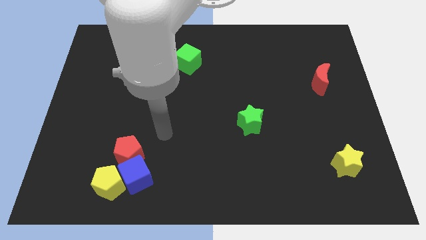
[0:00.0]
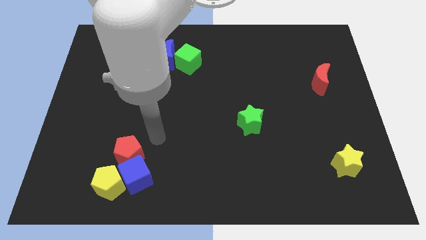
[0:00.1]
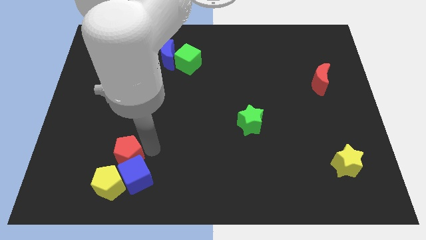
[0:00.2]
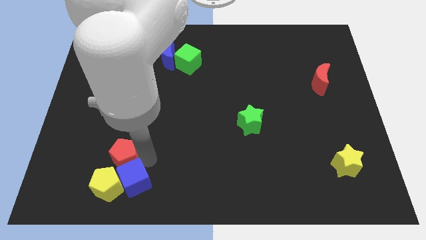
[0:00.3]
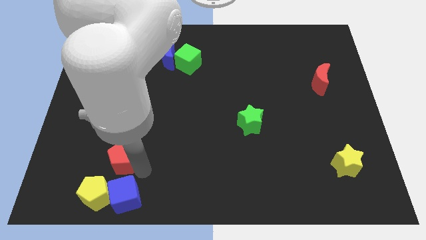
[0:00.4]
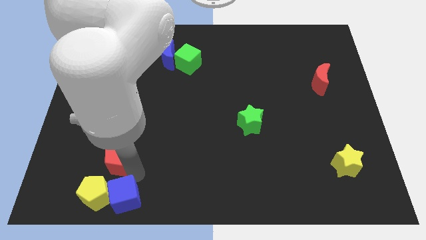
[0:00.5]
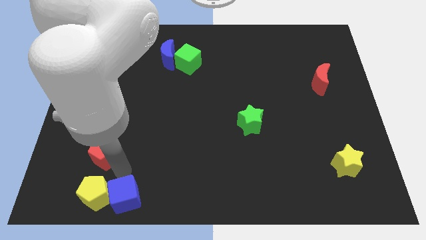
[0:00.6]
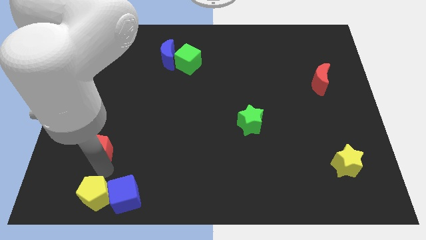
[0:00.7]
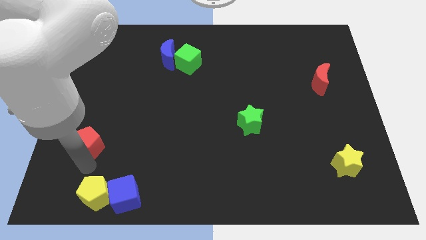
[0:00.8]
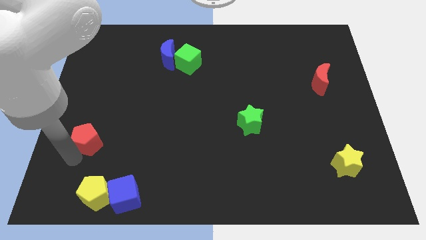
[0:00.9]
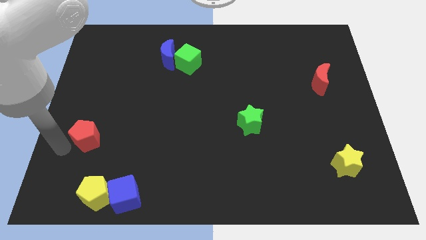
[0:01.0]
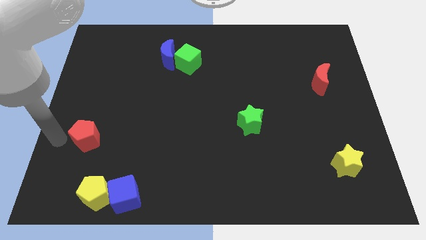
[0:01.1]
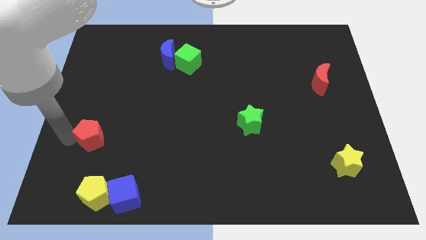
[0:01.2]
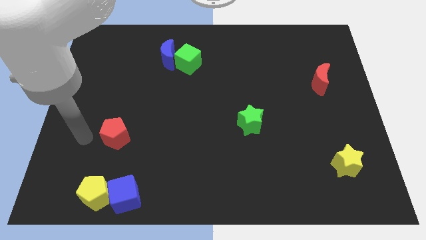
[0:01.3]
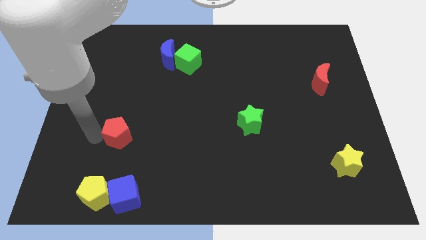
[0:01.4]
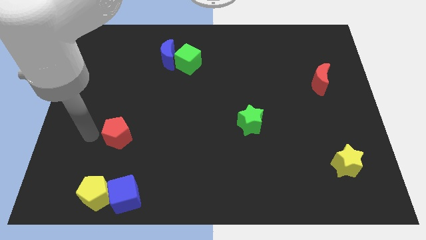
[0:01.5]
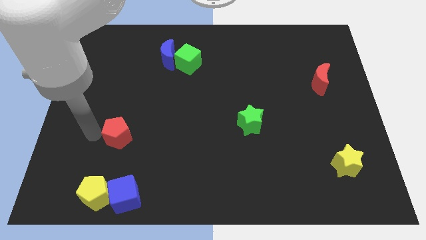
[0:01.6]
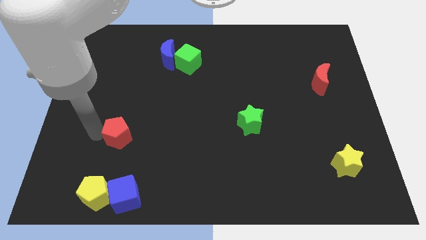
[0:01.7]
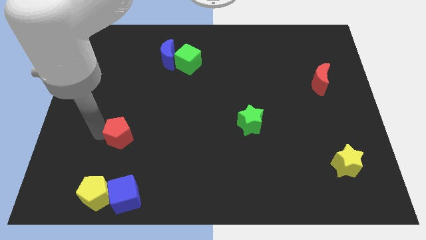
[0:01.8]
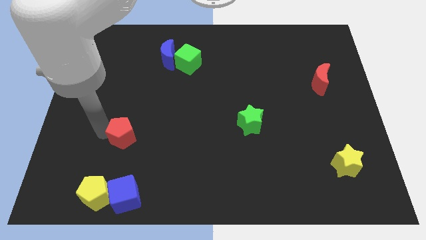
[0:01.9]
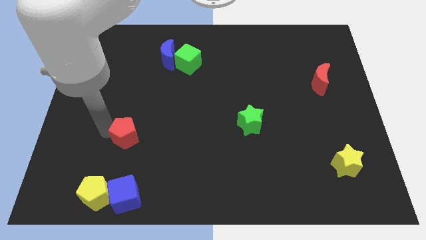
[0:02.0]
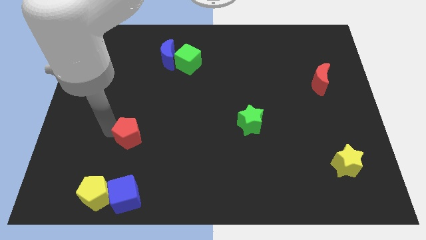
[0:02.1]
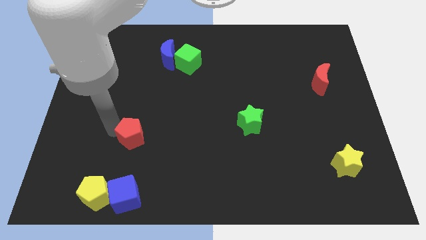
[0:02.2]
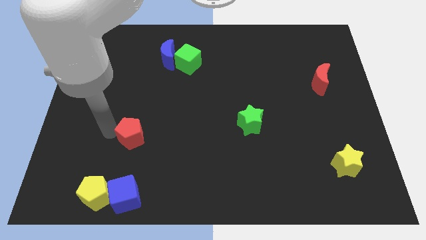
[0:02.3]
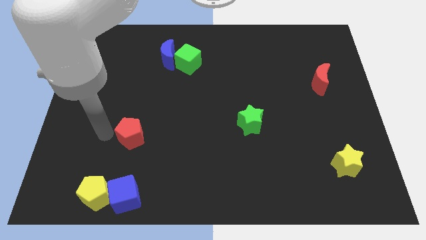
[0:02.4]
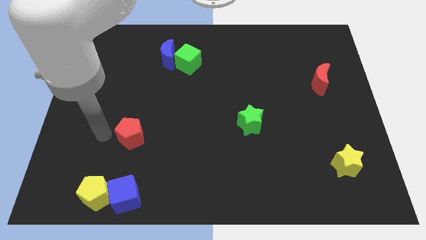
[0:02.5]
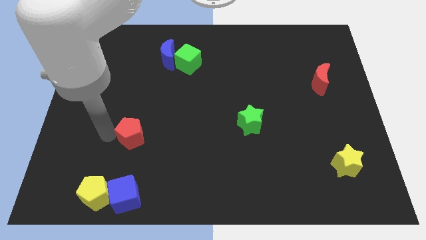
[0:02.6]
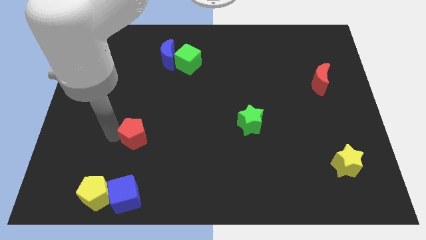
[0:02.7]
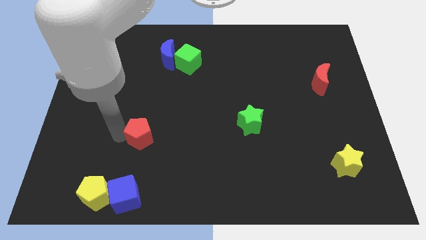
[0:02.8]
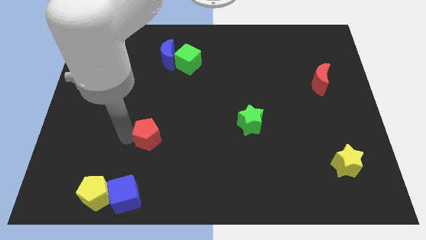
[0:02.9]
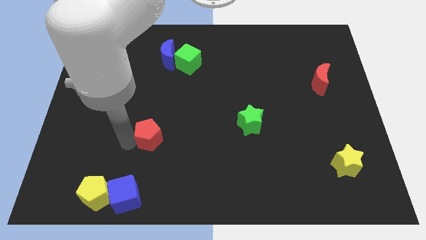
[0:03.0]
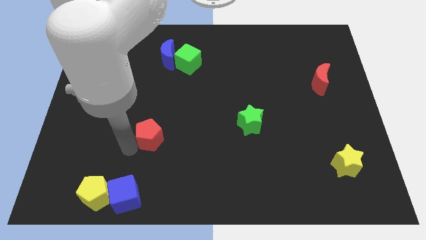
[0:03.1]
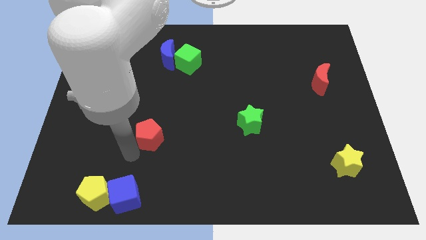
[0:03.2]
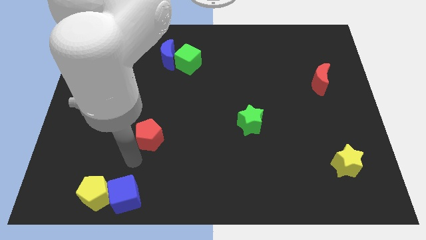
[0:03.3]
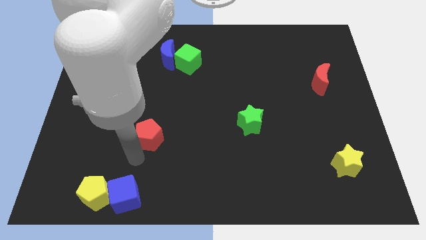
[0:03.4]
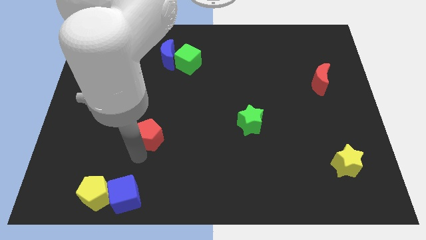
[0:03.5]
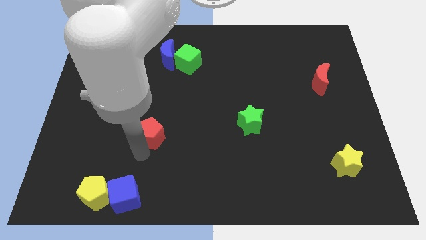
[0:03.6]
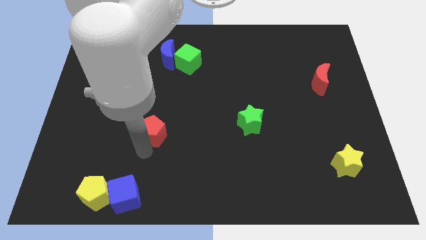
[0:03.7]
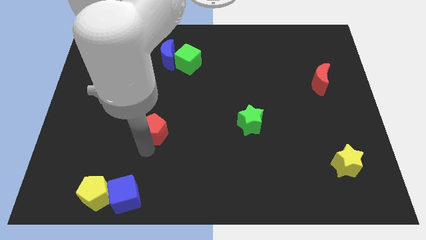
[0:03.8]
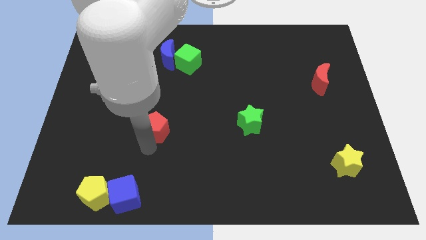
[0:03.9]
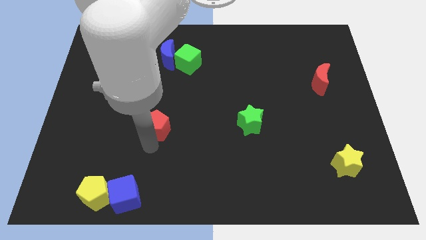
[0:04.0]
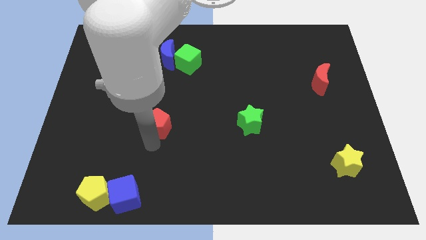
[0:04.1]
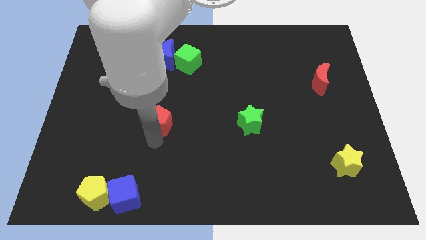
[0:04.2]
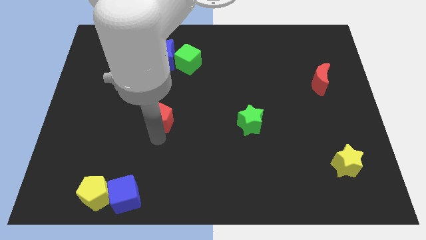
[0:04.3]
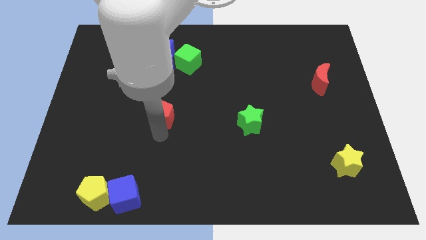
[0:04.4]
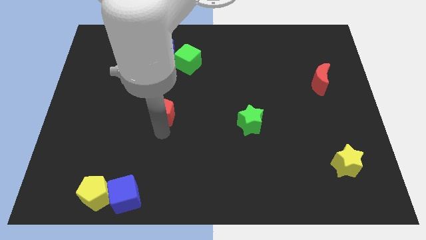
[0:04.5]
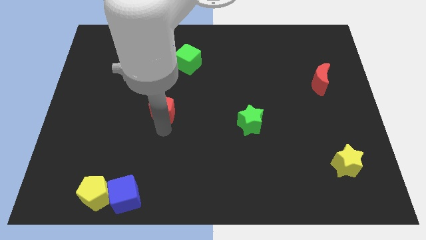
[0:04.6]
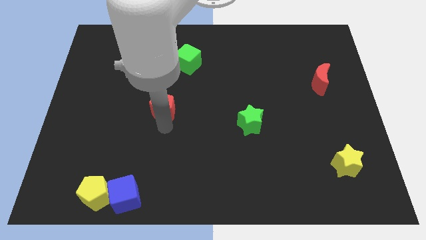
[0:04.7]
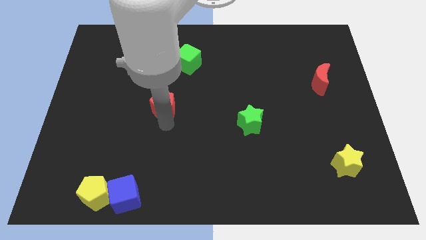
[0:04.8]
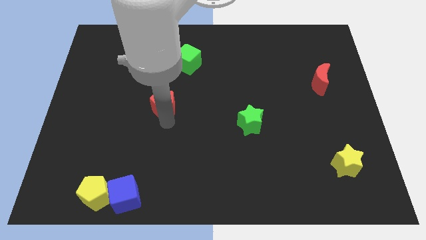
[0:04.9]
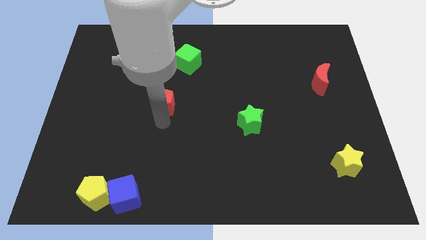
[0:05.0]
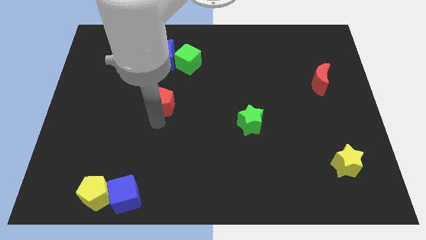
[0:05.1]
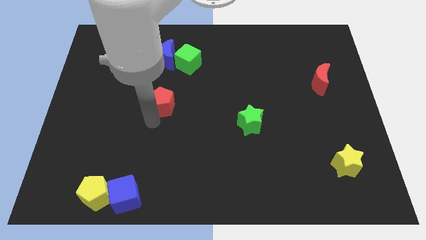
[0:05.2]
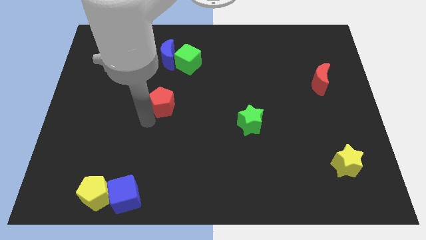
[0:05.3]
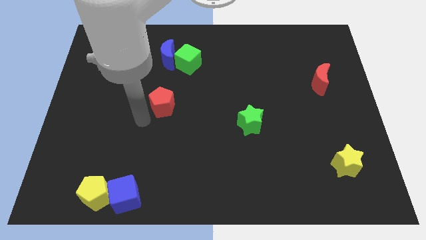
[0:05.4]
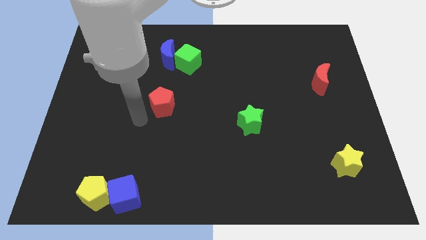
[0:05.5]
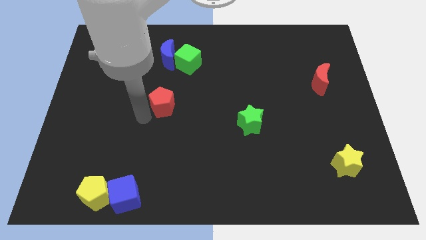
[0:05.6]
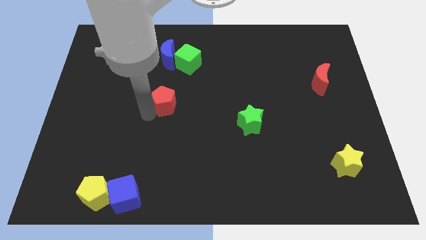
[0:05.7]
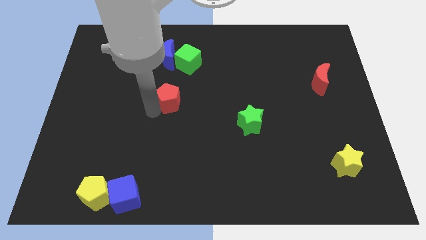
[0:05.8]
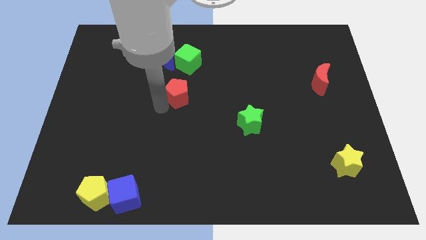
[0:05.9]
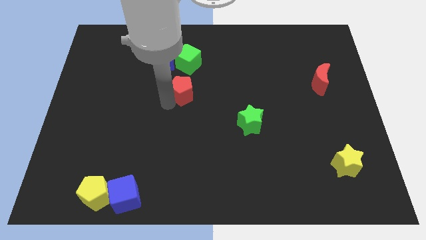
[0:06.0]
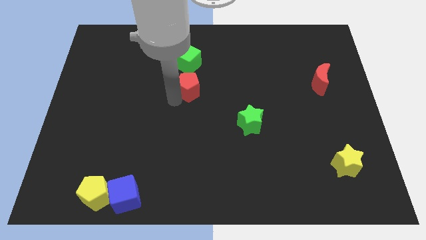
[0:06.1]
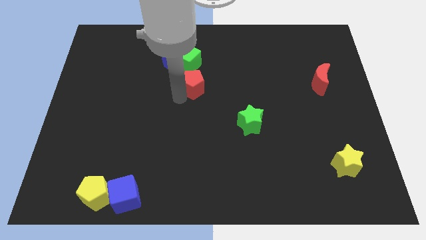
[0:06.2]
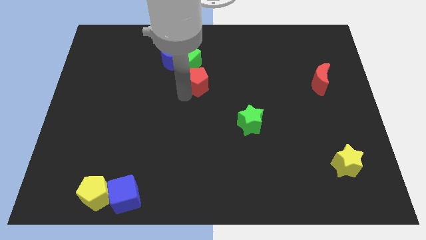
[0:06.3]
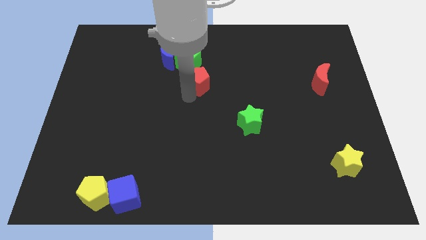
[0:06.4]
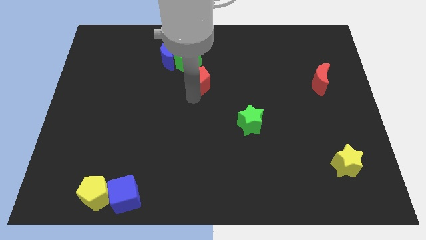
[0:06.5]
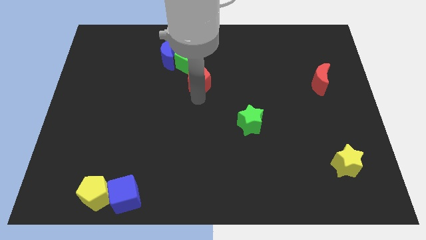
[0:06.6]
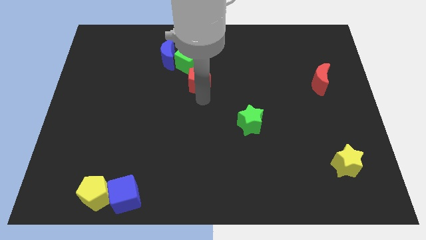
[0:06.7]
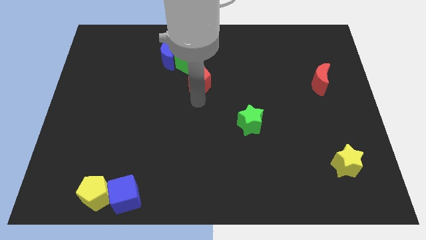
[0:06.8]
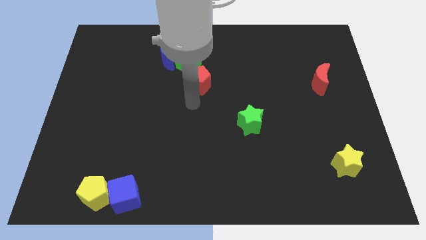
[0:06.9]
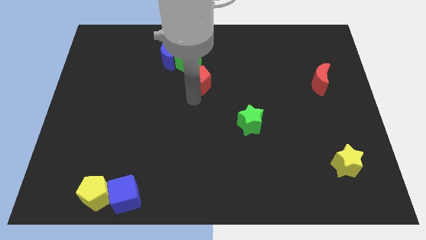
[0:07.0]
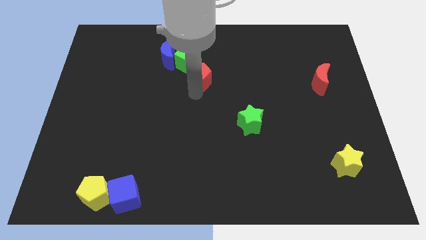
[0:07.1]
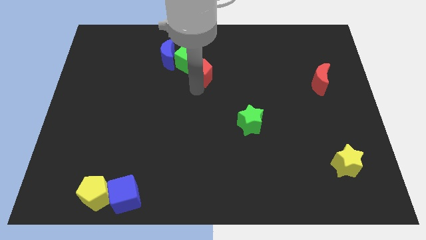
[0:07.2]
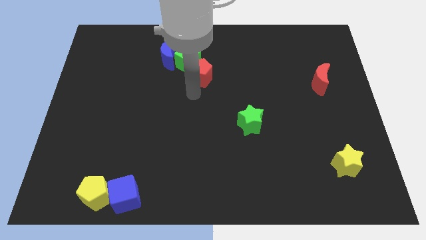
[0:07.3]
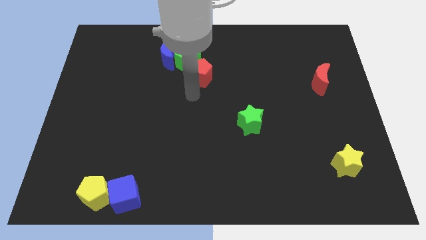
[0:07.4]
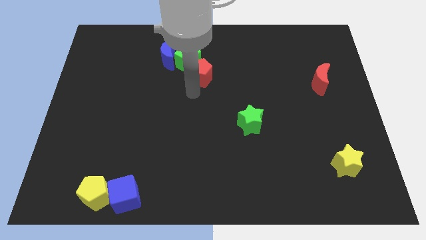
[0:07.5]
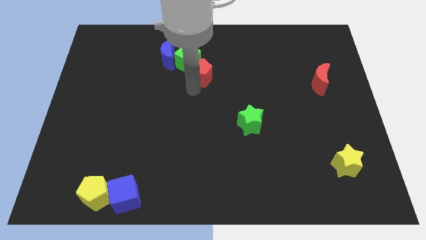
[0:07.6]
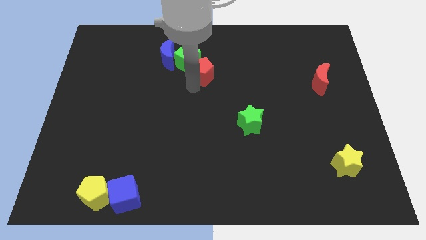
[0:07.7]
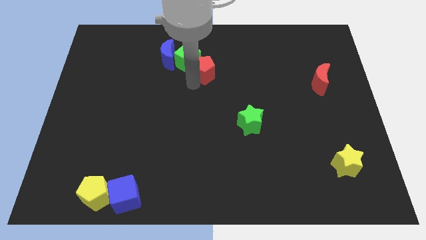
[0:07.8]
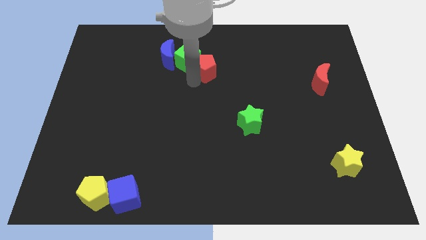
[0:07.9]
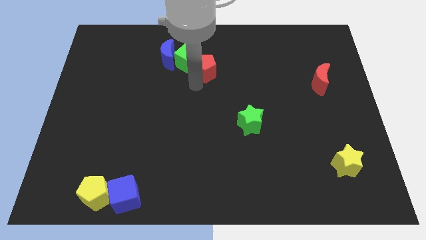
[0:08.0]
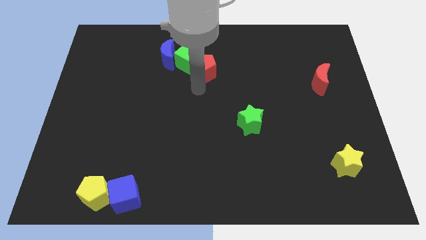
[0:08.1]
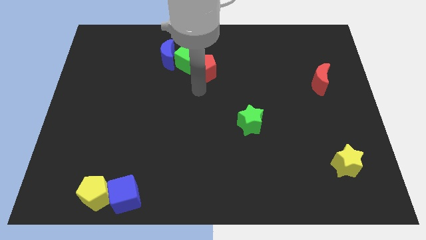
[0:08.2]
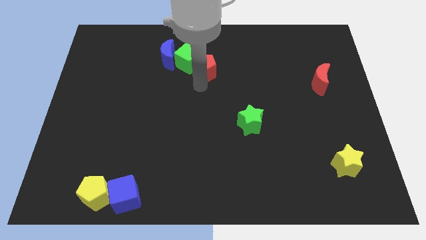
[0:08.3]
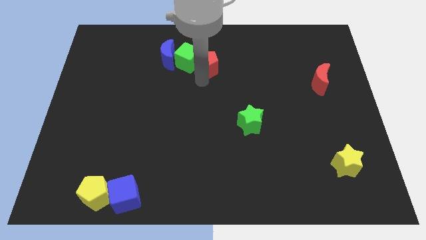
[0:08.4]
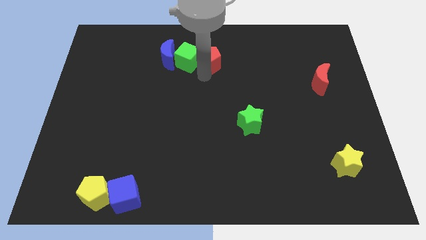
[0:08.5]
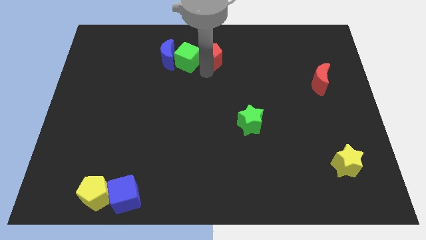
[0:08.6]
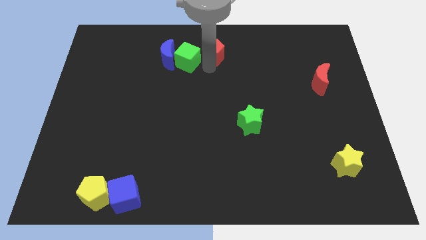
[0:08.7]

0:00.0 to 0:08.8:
slide the red pentagon to the top side
